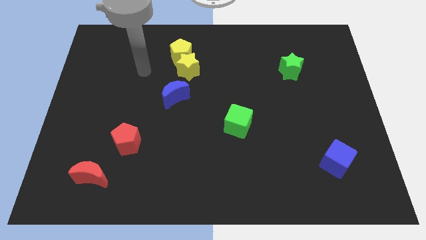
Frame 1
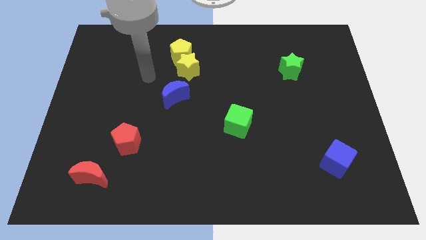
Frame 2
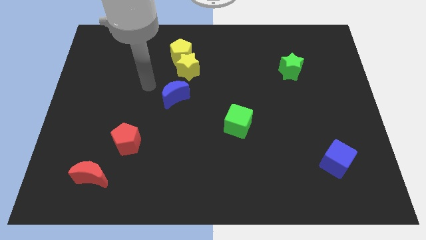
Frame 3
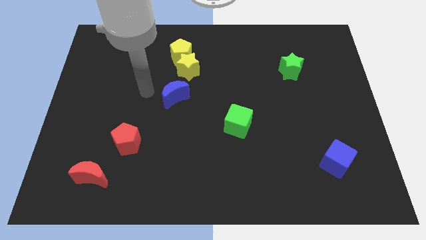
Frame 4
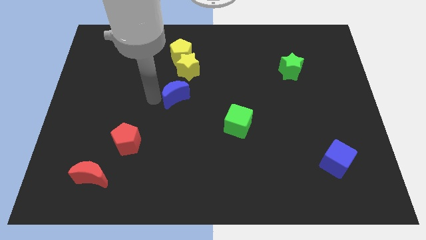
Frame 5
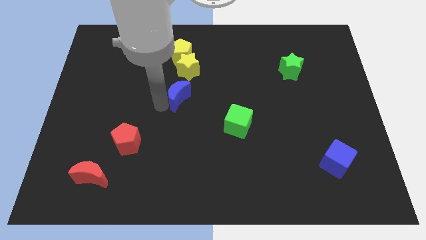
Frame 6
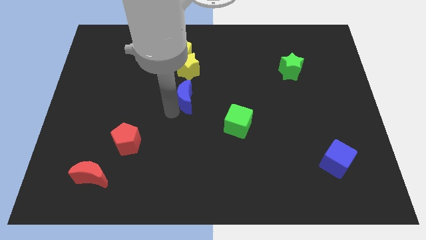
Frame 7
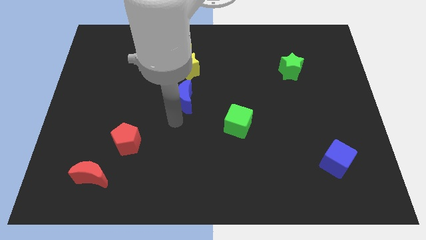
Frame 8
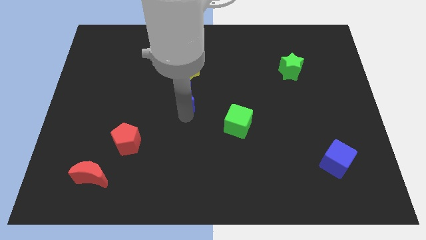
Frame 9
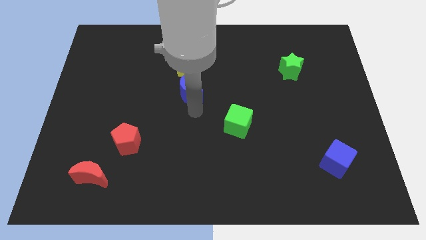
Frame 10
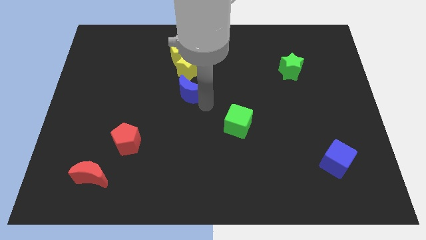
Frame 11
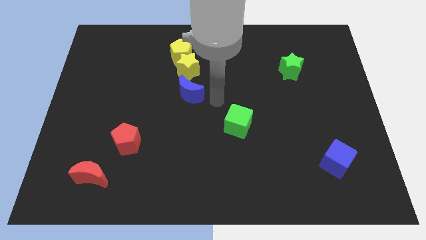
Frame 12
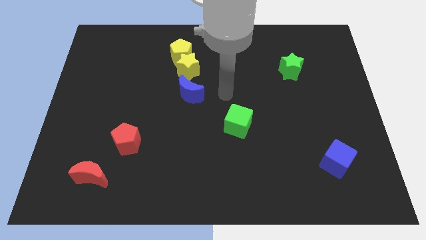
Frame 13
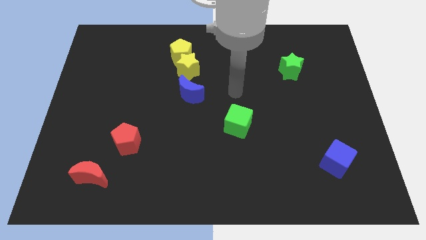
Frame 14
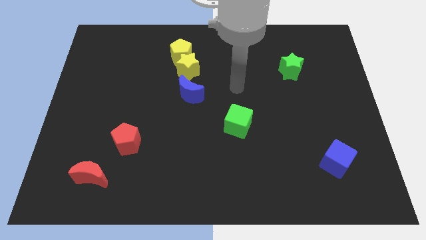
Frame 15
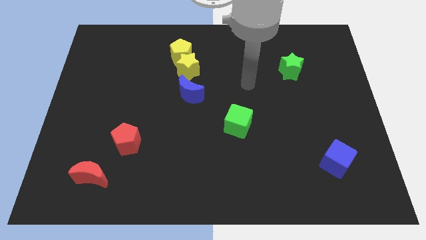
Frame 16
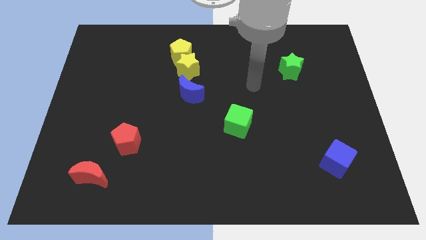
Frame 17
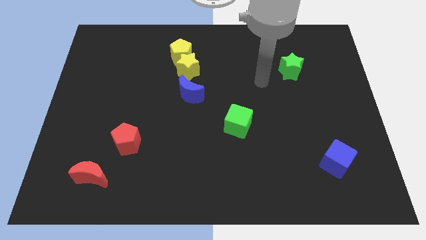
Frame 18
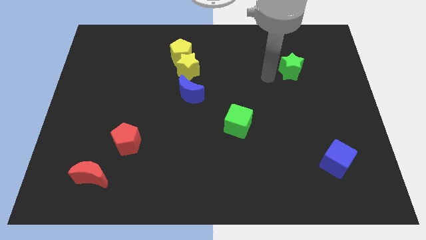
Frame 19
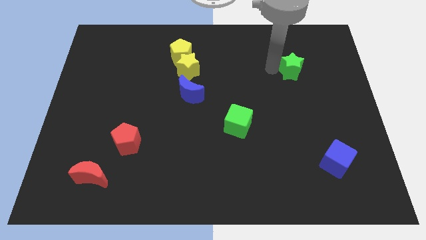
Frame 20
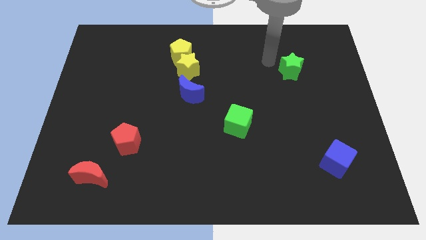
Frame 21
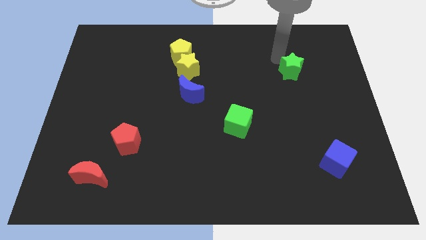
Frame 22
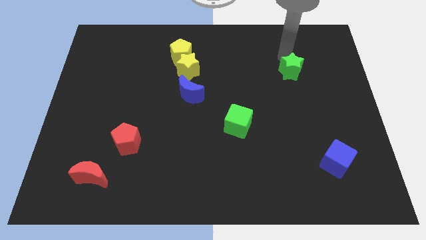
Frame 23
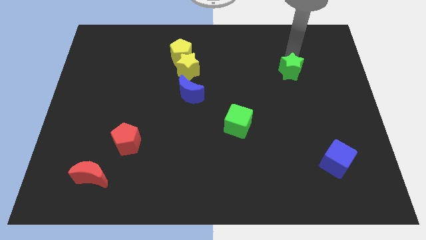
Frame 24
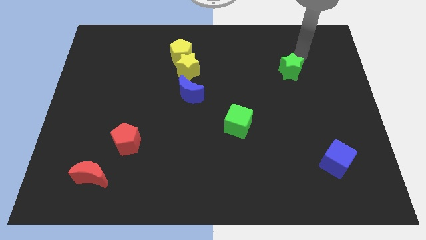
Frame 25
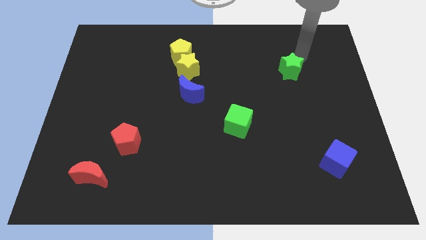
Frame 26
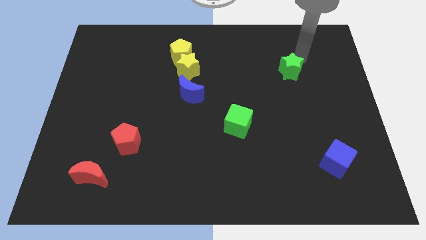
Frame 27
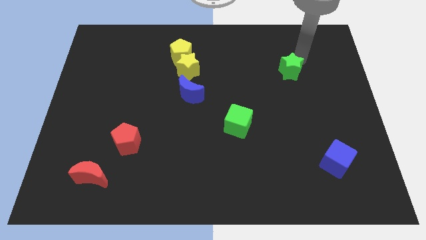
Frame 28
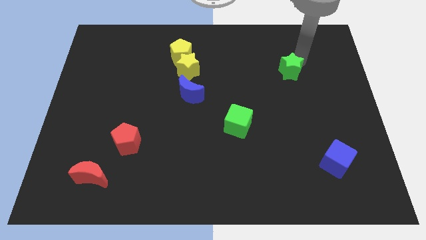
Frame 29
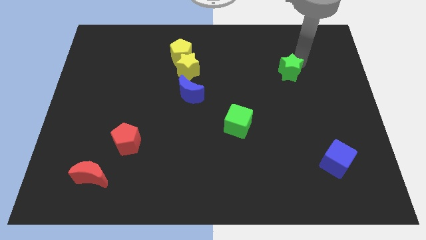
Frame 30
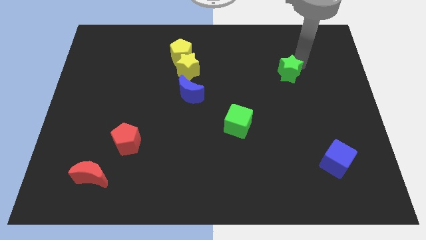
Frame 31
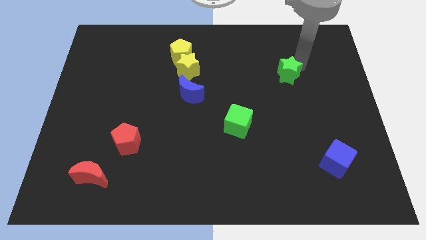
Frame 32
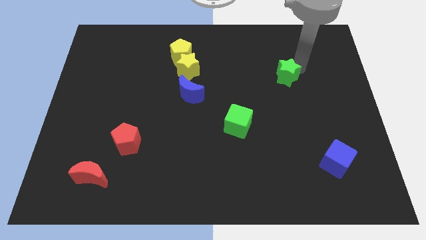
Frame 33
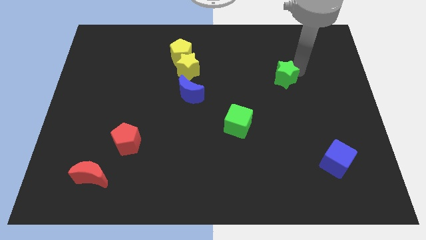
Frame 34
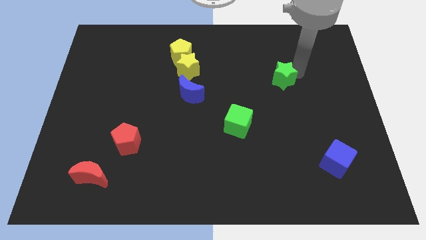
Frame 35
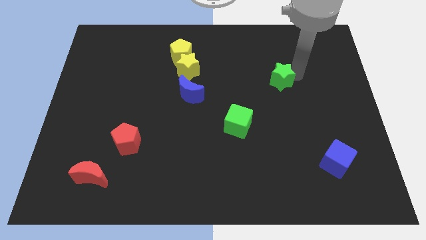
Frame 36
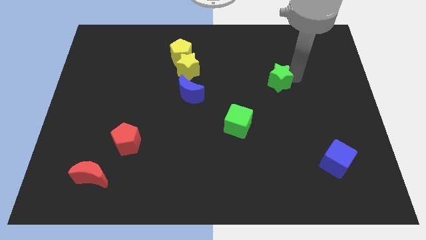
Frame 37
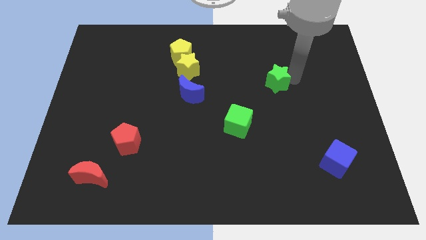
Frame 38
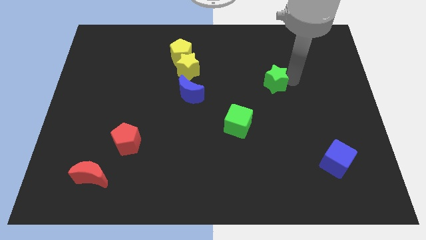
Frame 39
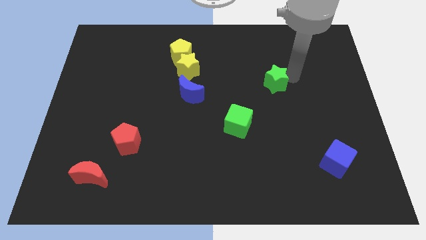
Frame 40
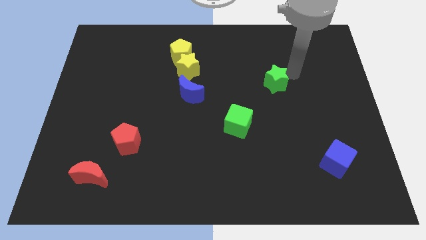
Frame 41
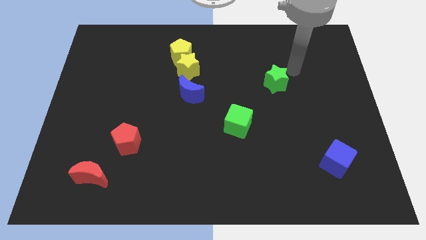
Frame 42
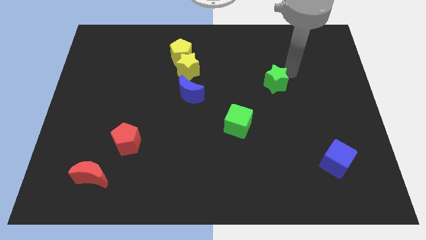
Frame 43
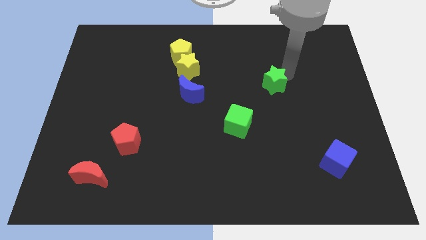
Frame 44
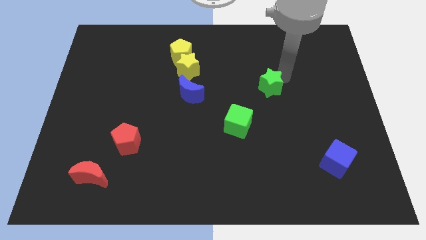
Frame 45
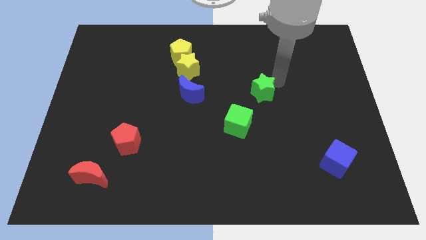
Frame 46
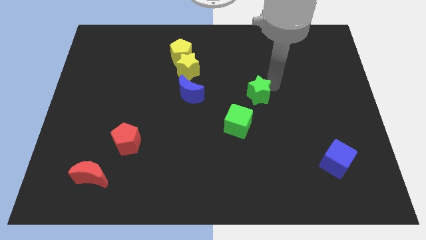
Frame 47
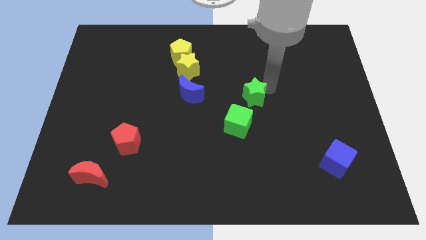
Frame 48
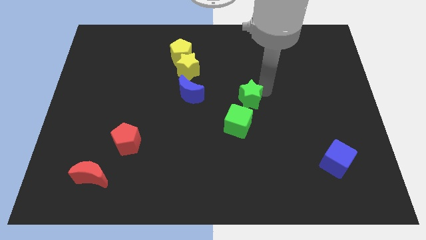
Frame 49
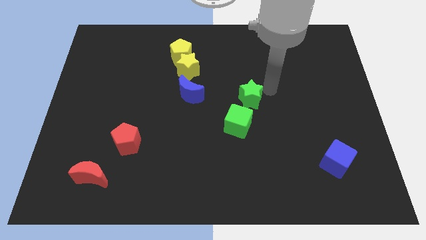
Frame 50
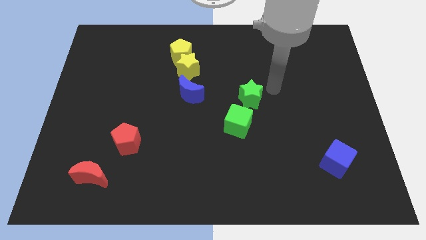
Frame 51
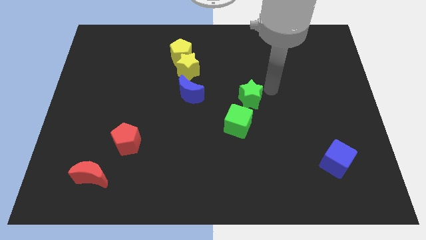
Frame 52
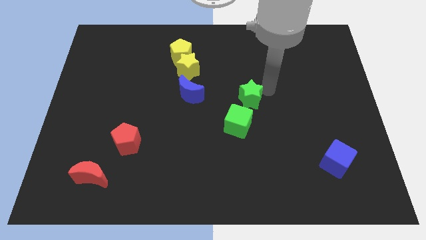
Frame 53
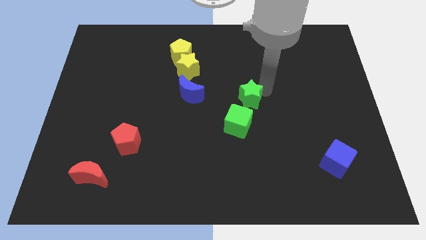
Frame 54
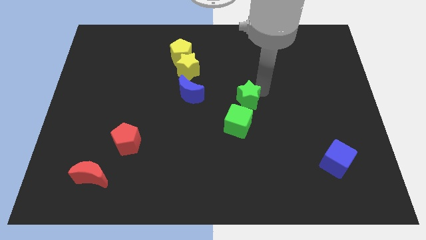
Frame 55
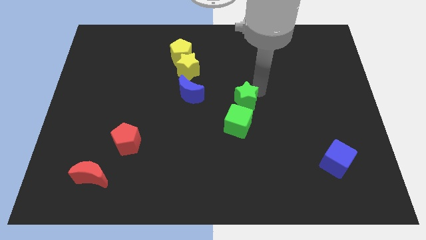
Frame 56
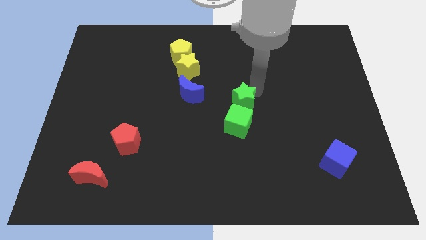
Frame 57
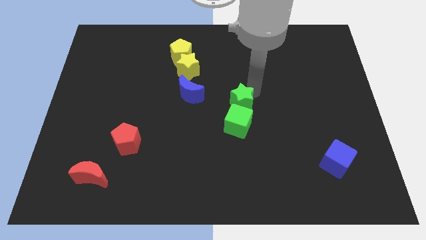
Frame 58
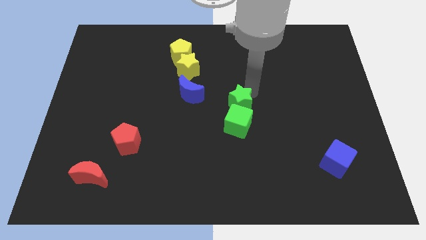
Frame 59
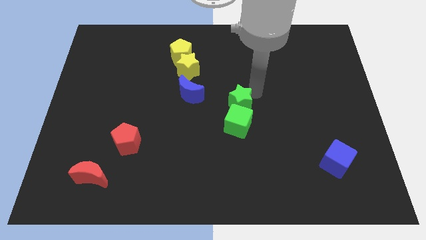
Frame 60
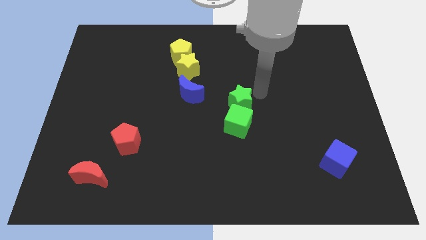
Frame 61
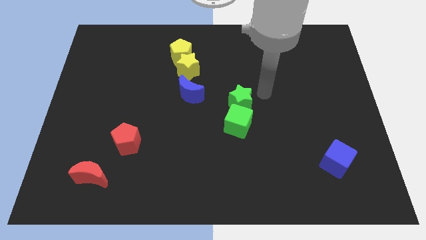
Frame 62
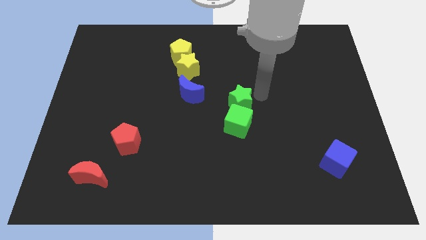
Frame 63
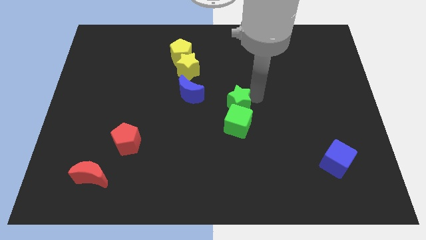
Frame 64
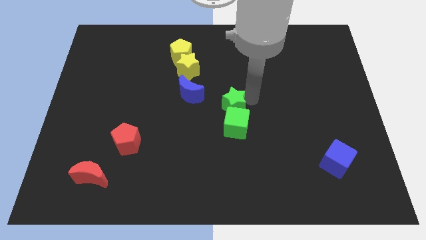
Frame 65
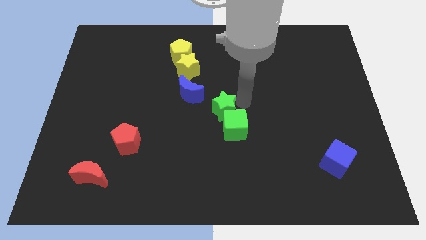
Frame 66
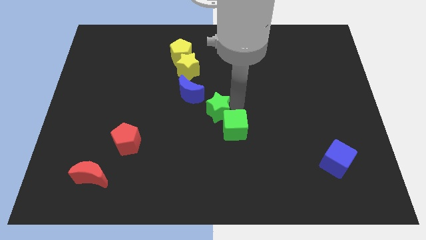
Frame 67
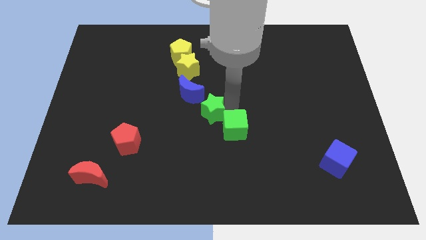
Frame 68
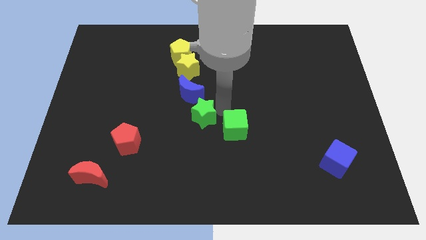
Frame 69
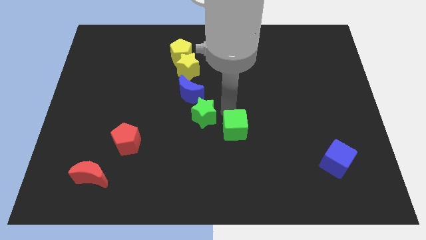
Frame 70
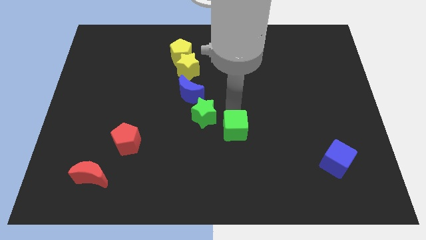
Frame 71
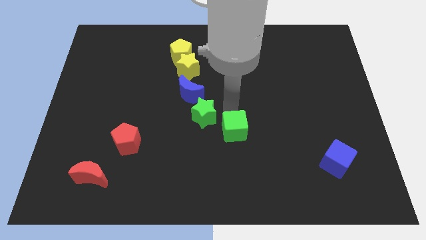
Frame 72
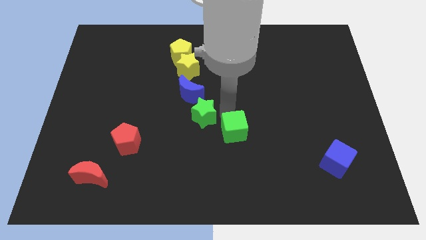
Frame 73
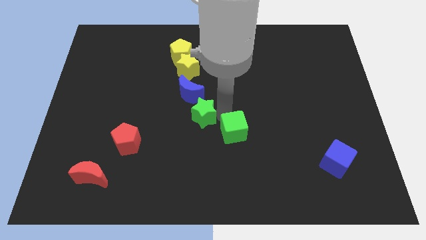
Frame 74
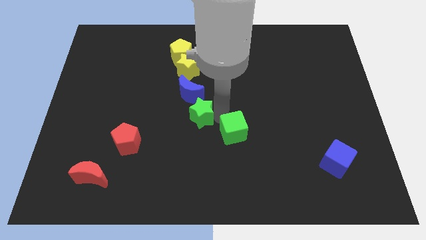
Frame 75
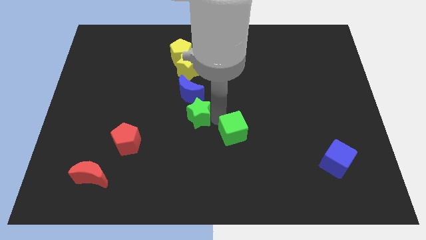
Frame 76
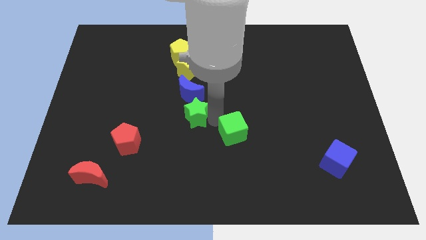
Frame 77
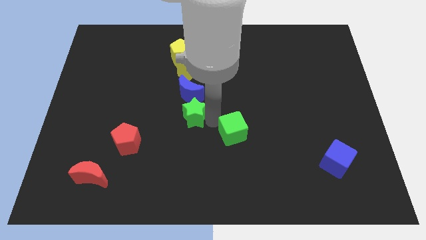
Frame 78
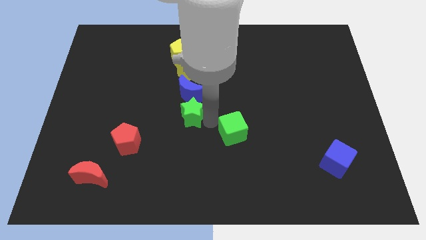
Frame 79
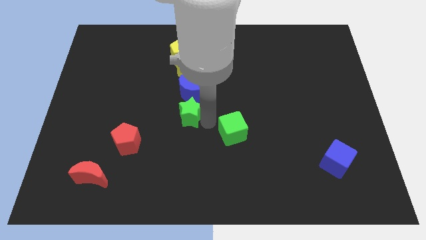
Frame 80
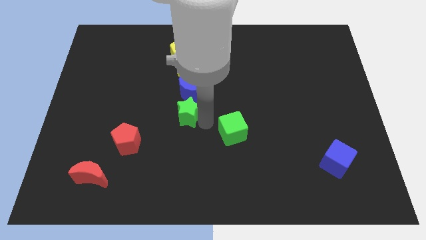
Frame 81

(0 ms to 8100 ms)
move the green star diagonally down and to the left of the blue moon
